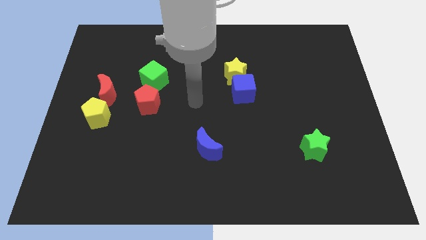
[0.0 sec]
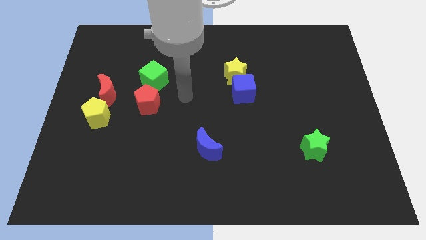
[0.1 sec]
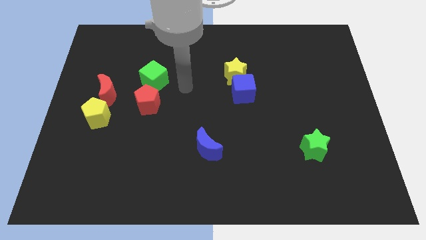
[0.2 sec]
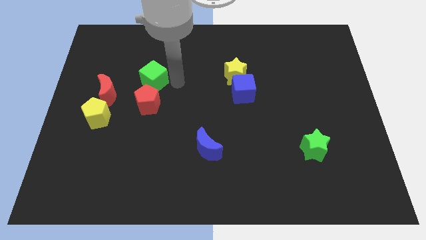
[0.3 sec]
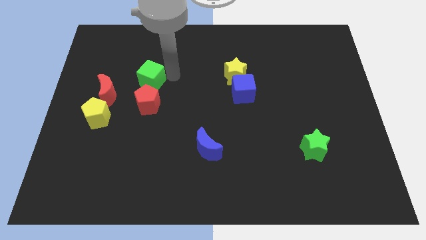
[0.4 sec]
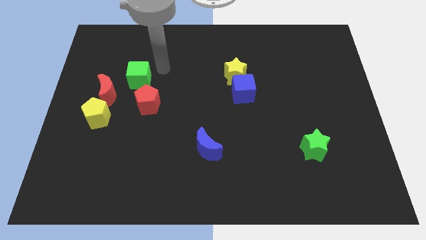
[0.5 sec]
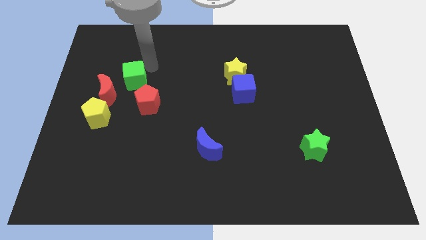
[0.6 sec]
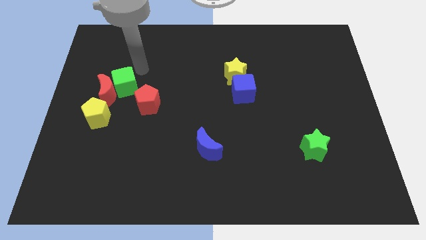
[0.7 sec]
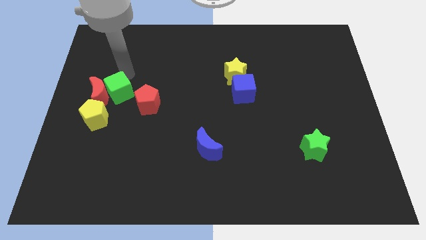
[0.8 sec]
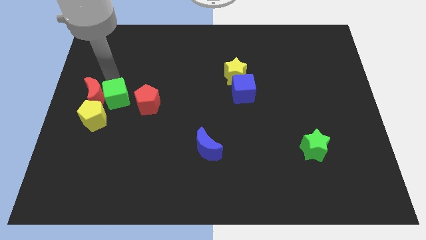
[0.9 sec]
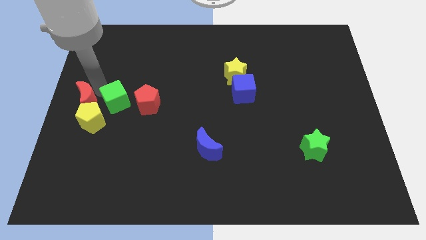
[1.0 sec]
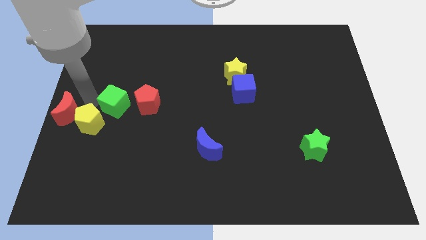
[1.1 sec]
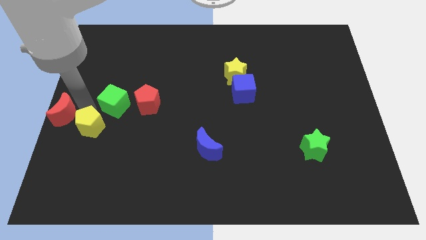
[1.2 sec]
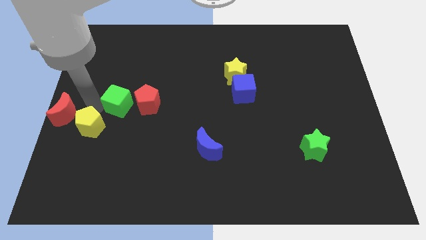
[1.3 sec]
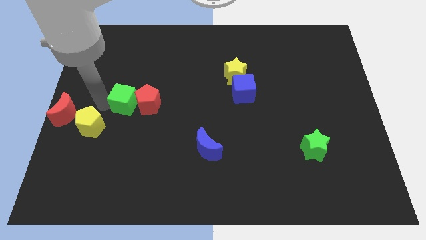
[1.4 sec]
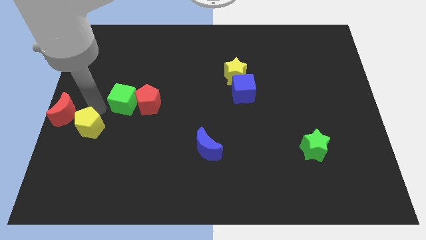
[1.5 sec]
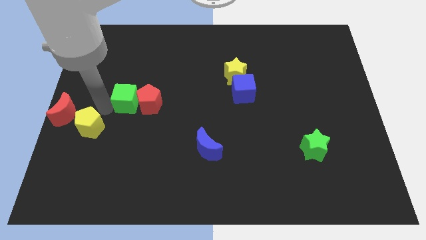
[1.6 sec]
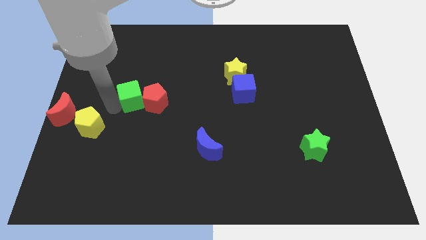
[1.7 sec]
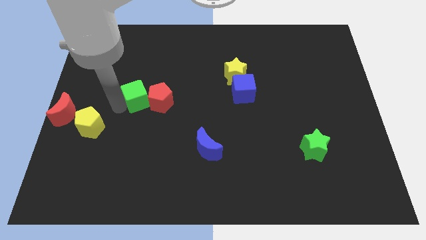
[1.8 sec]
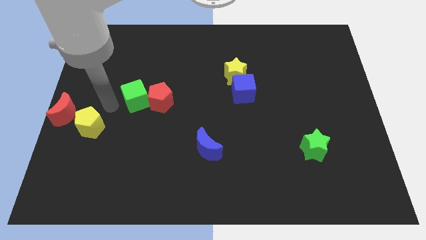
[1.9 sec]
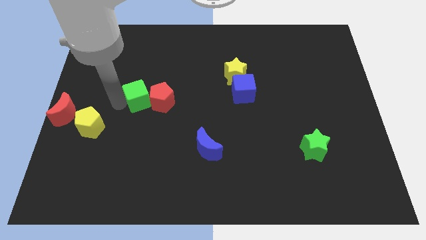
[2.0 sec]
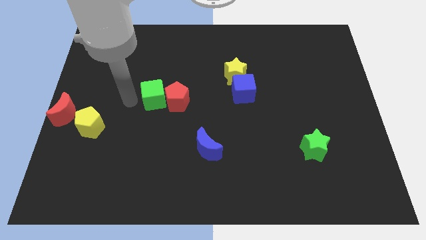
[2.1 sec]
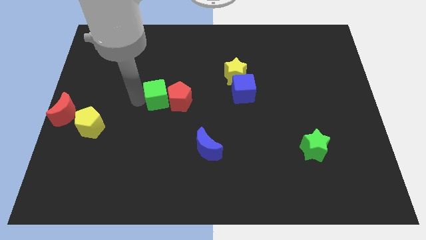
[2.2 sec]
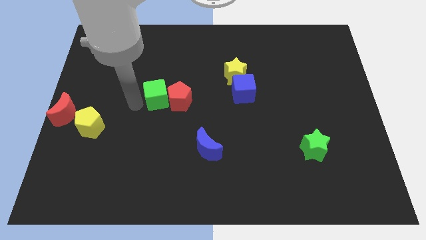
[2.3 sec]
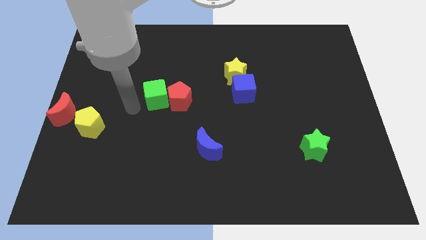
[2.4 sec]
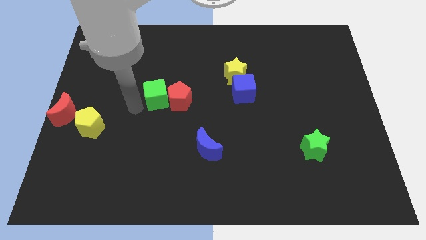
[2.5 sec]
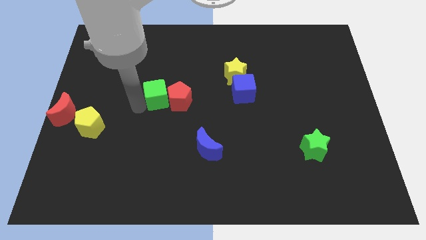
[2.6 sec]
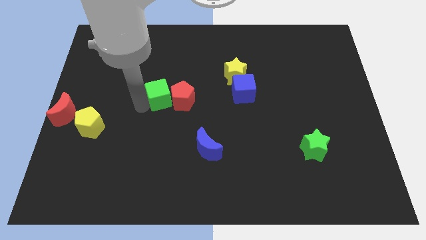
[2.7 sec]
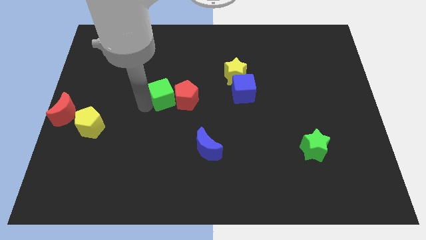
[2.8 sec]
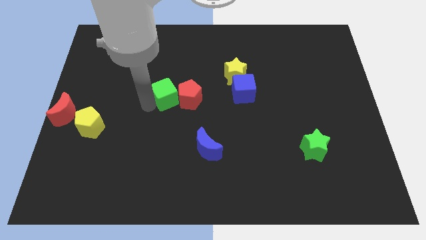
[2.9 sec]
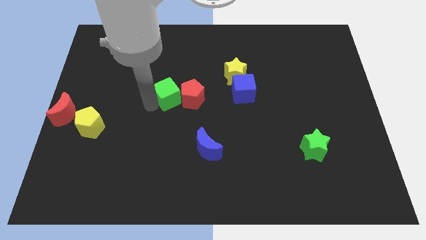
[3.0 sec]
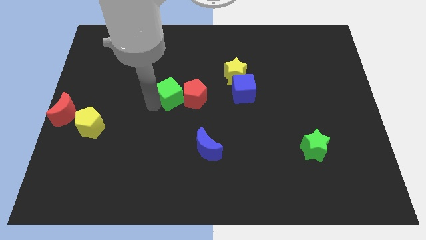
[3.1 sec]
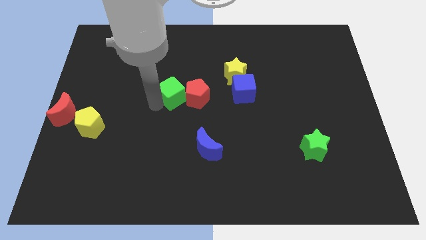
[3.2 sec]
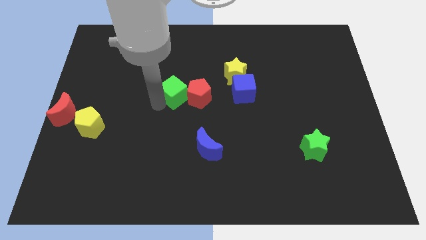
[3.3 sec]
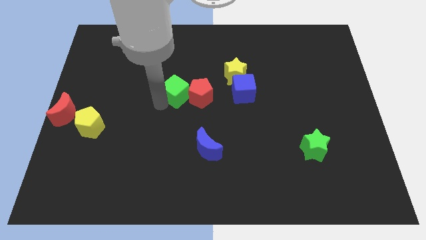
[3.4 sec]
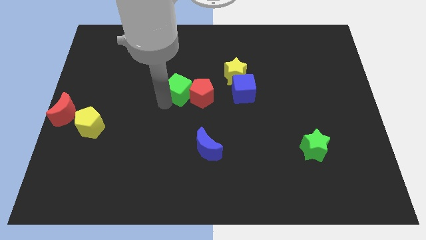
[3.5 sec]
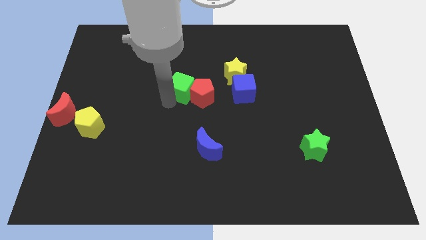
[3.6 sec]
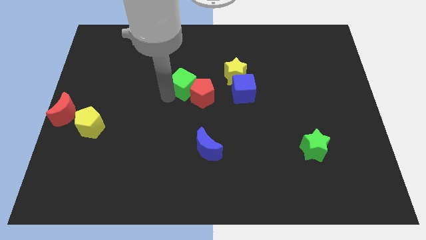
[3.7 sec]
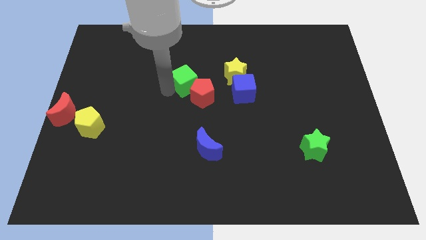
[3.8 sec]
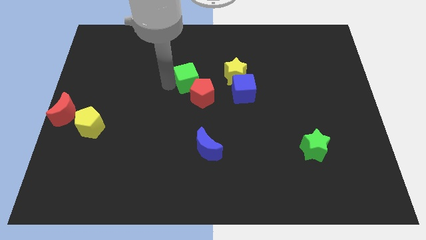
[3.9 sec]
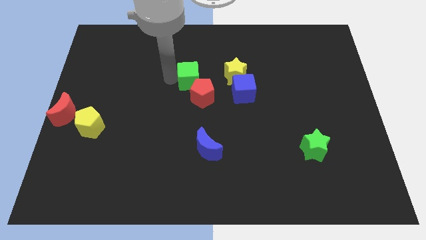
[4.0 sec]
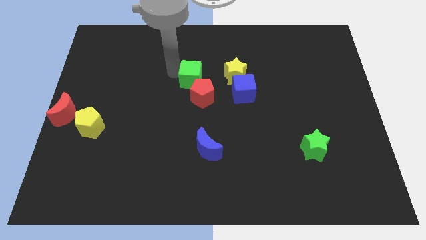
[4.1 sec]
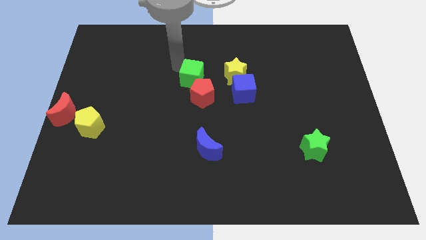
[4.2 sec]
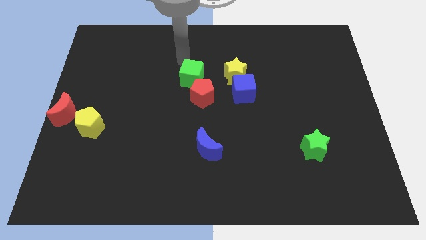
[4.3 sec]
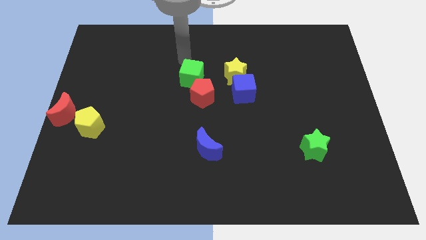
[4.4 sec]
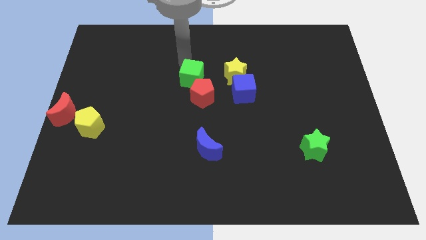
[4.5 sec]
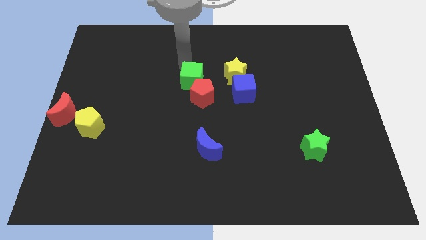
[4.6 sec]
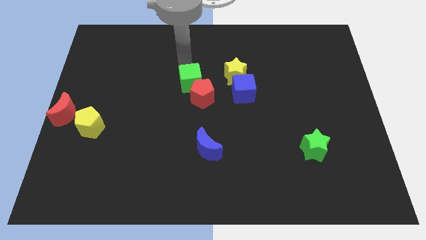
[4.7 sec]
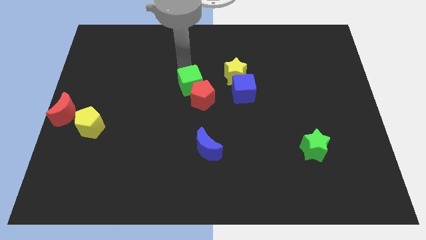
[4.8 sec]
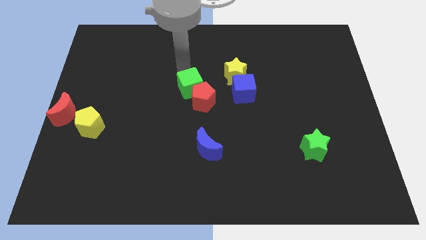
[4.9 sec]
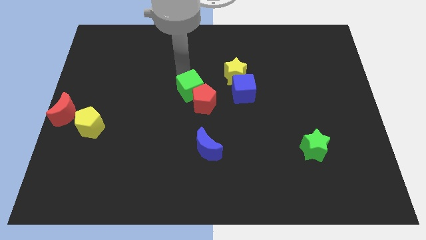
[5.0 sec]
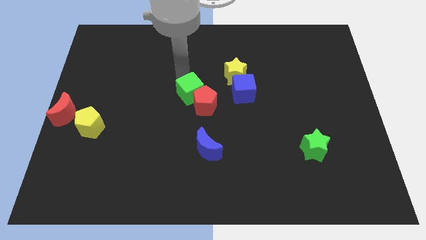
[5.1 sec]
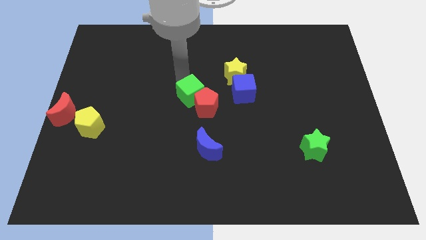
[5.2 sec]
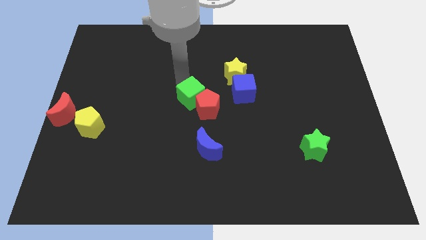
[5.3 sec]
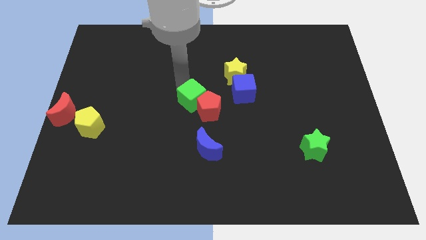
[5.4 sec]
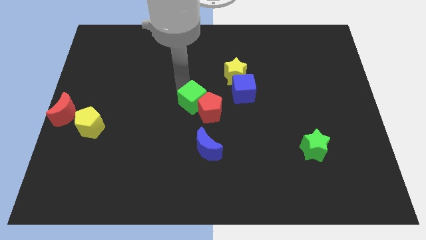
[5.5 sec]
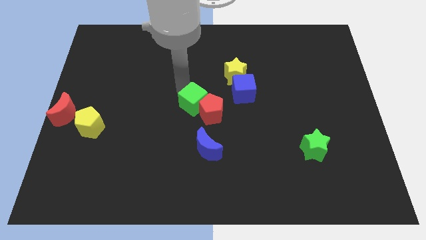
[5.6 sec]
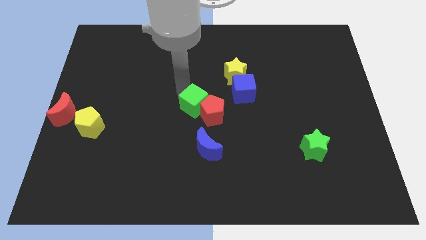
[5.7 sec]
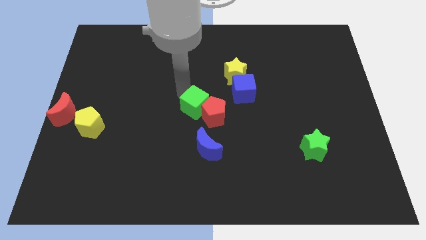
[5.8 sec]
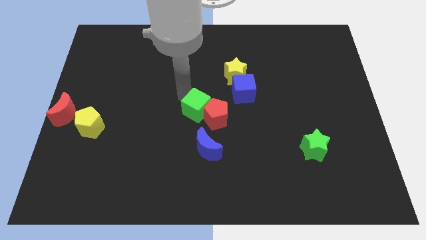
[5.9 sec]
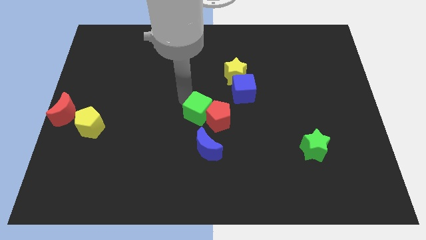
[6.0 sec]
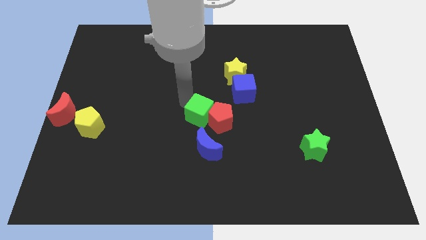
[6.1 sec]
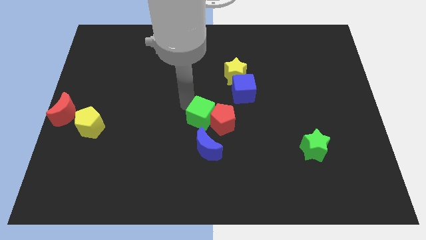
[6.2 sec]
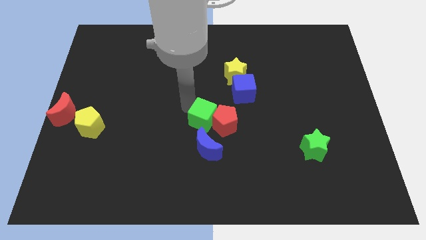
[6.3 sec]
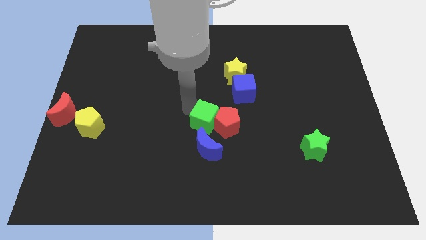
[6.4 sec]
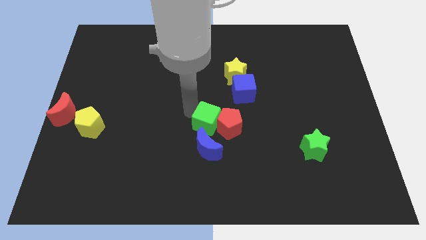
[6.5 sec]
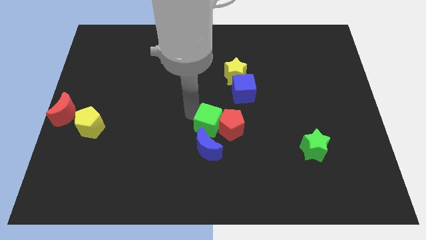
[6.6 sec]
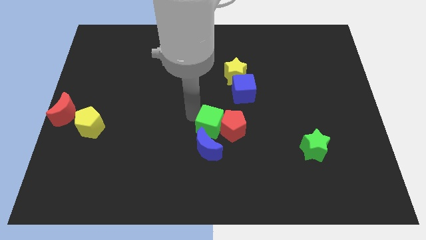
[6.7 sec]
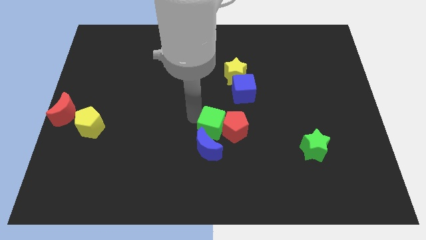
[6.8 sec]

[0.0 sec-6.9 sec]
push the green cube downwards and then to the right

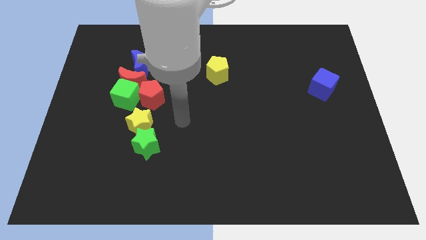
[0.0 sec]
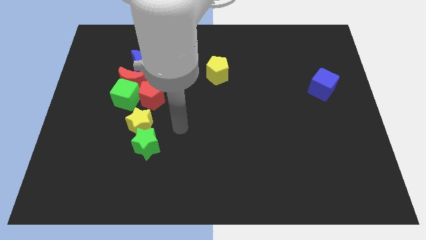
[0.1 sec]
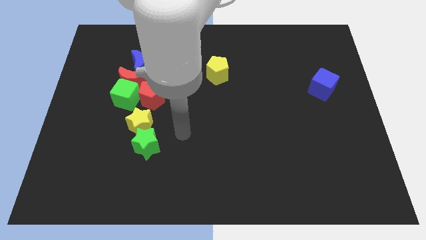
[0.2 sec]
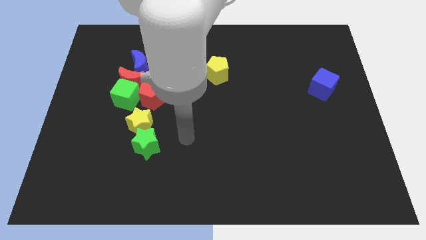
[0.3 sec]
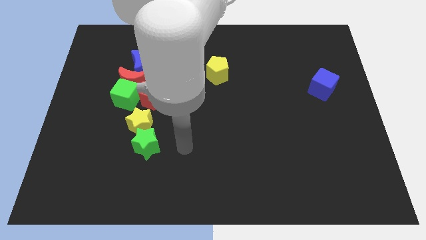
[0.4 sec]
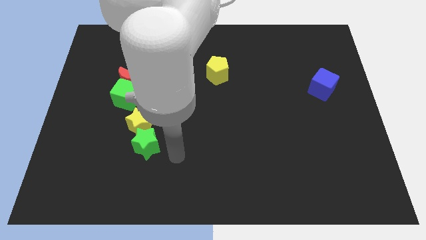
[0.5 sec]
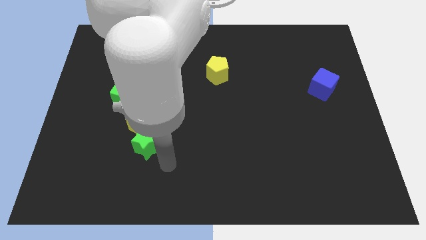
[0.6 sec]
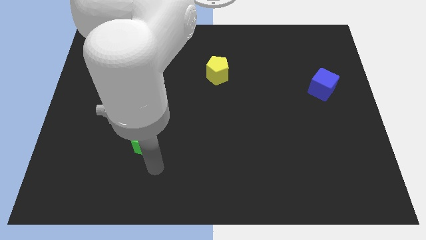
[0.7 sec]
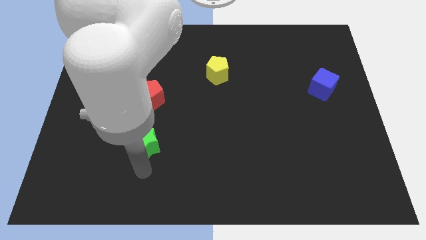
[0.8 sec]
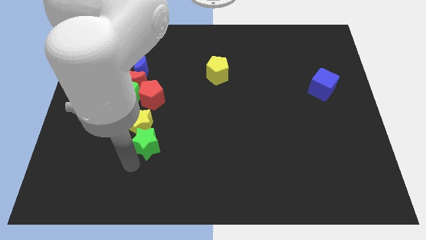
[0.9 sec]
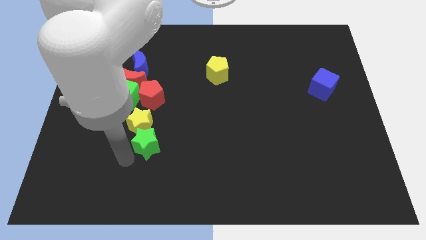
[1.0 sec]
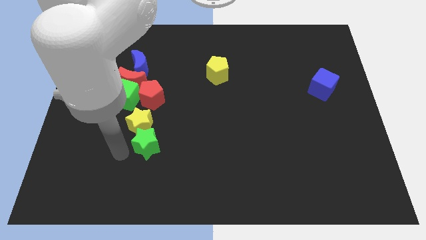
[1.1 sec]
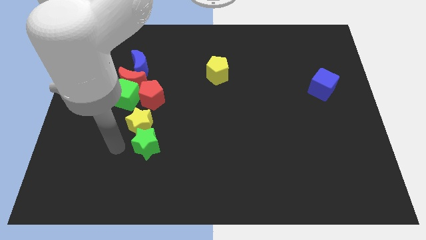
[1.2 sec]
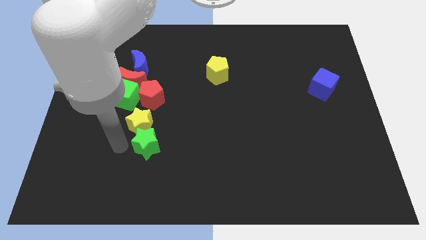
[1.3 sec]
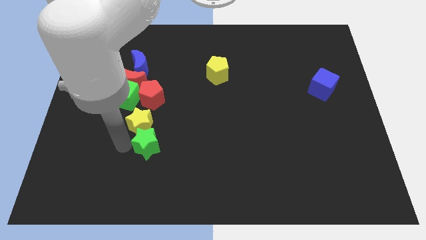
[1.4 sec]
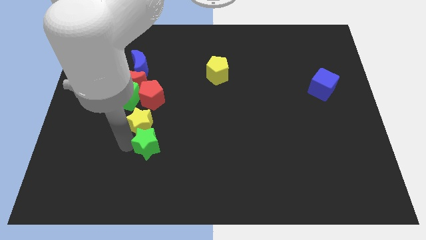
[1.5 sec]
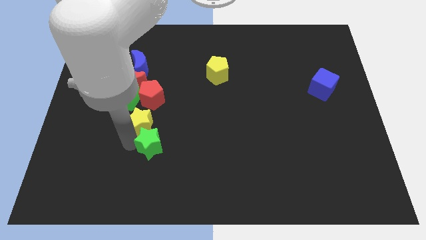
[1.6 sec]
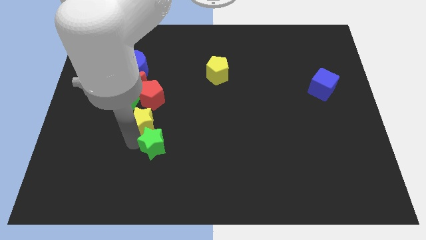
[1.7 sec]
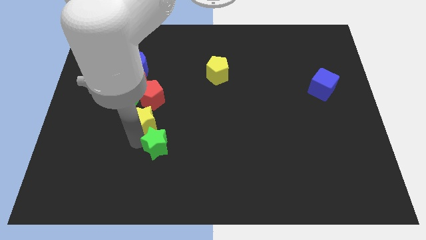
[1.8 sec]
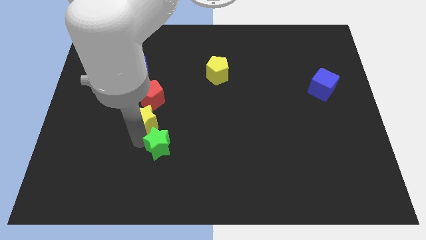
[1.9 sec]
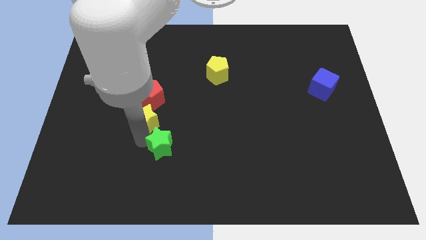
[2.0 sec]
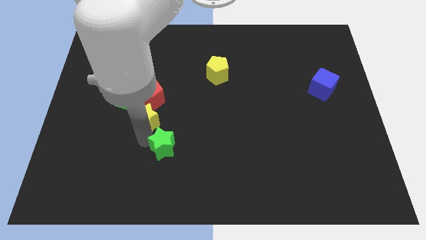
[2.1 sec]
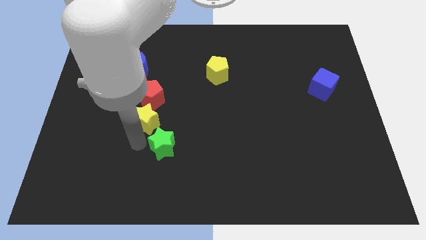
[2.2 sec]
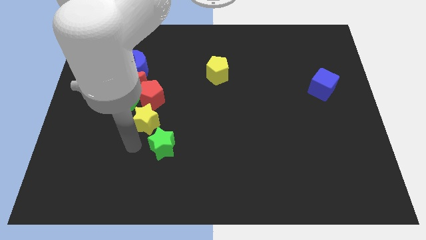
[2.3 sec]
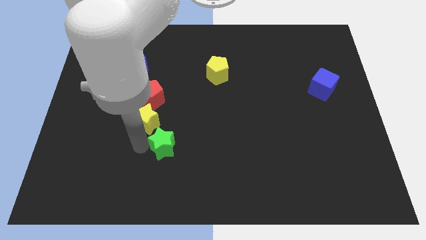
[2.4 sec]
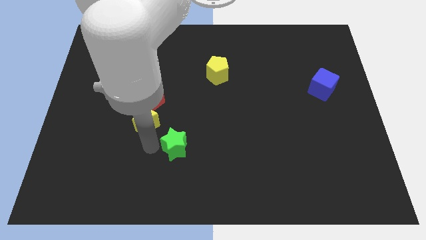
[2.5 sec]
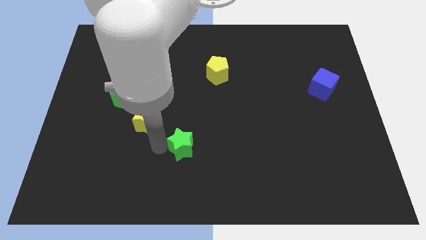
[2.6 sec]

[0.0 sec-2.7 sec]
slightly slide the green star right
